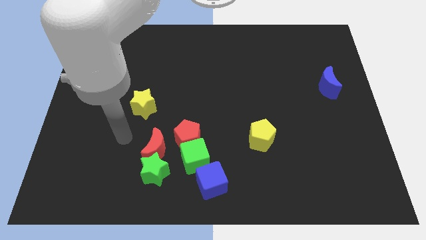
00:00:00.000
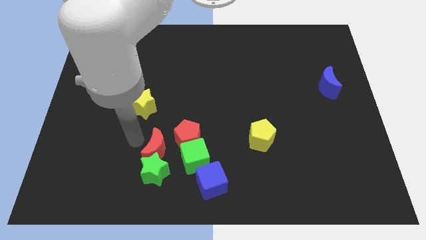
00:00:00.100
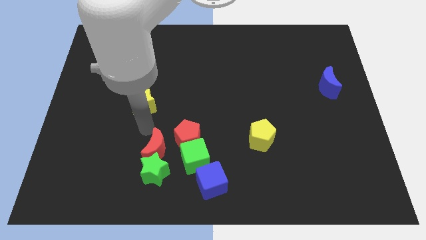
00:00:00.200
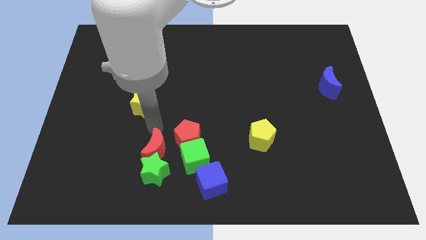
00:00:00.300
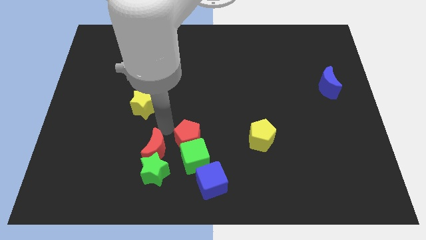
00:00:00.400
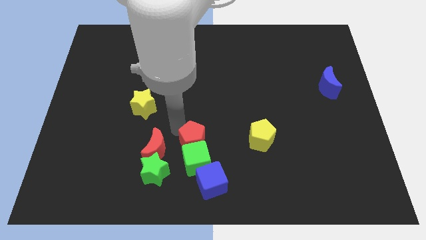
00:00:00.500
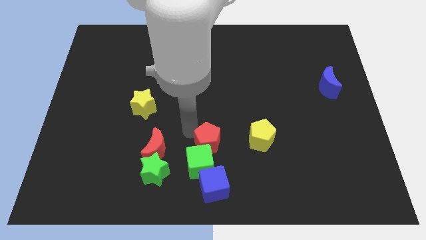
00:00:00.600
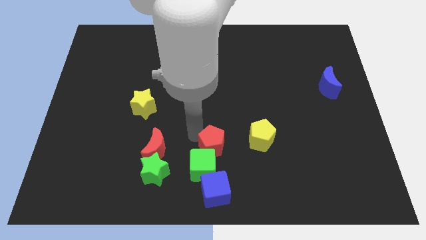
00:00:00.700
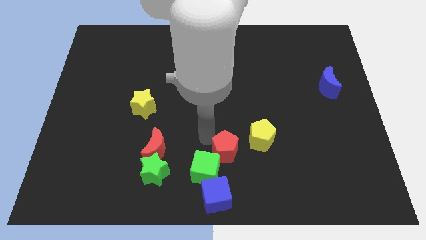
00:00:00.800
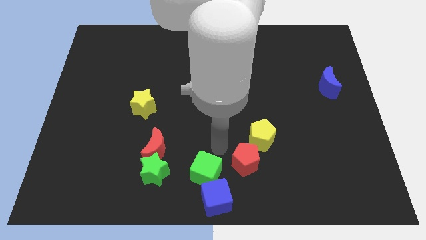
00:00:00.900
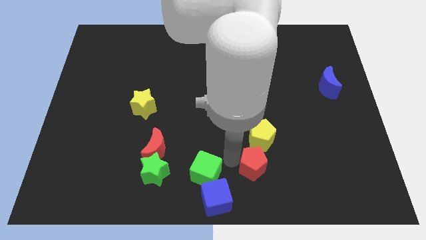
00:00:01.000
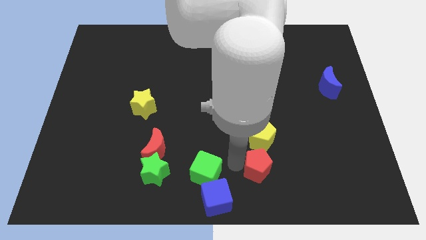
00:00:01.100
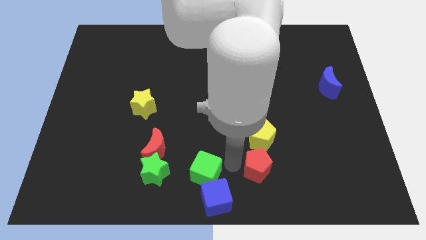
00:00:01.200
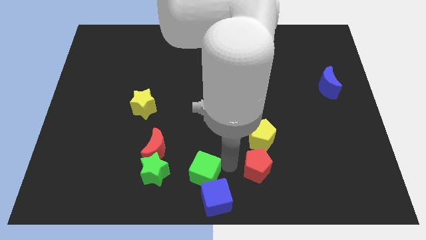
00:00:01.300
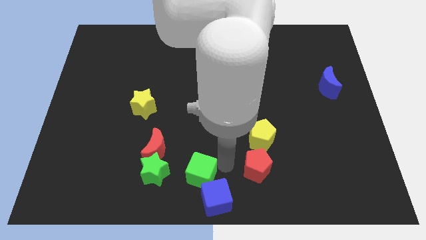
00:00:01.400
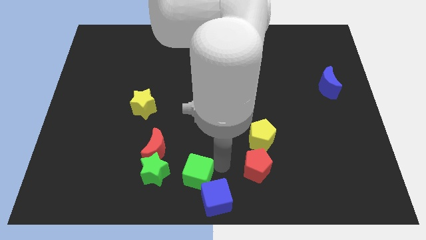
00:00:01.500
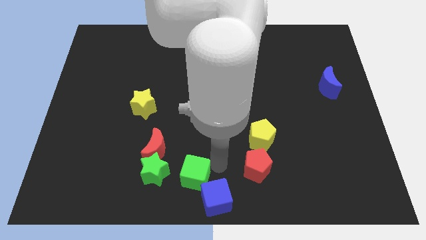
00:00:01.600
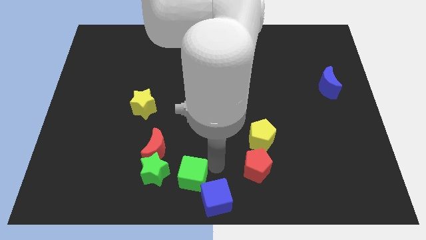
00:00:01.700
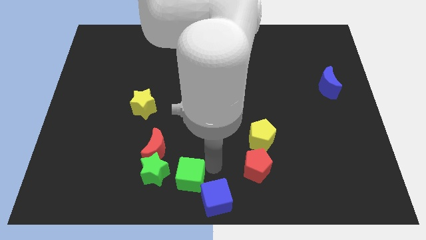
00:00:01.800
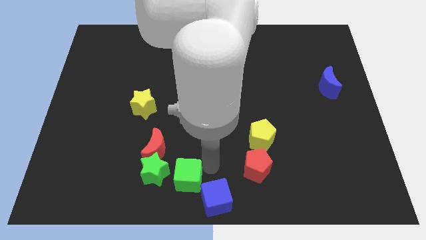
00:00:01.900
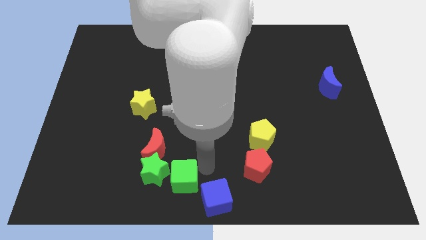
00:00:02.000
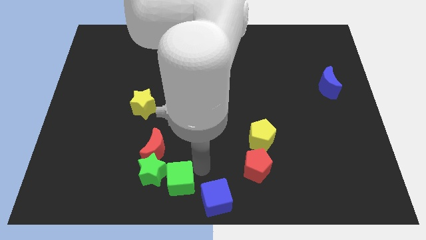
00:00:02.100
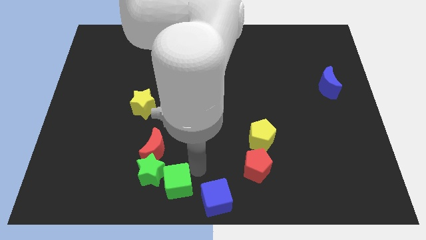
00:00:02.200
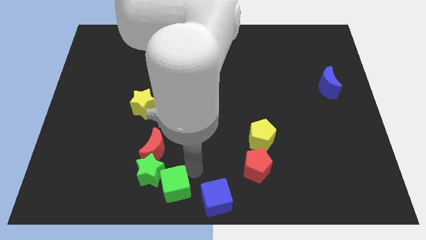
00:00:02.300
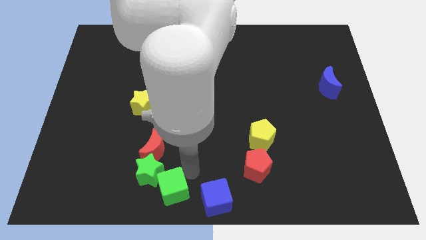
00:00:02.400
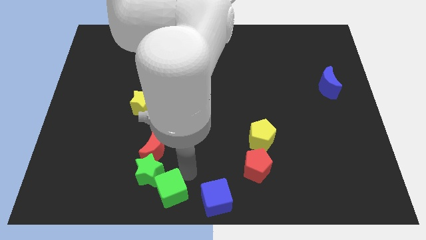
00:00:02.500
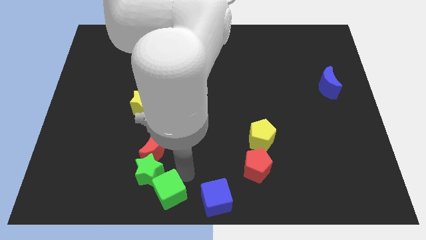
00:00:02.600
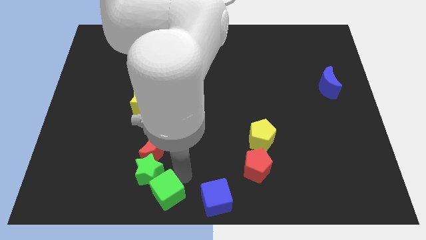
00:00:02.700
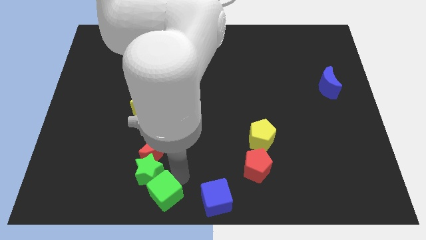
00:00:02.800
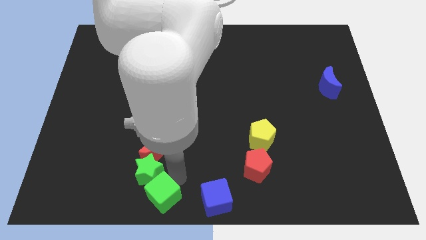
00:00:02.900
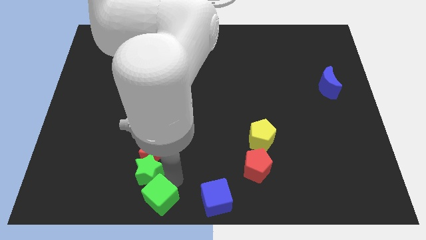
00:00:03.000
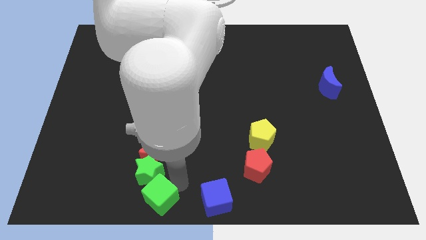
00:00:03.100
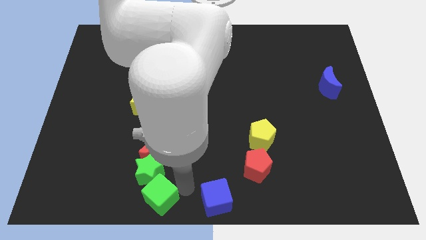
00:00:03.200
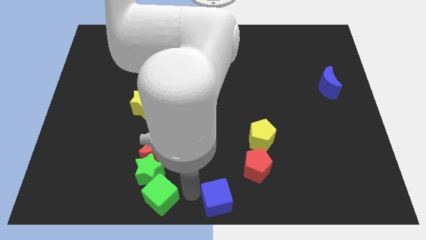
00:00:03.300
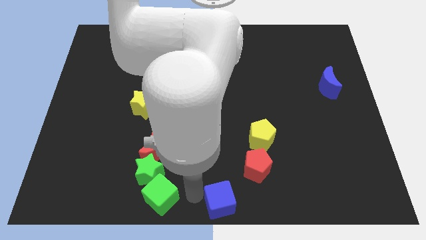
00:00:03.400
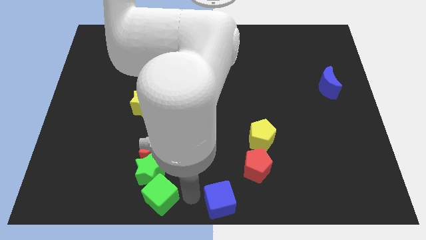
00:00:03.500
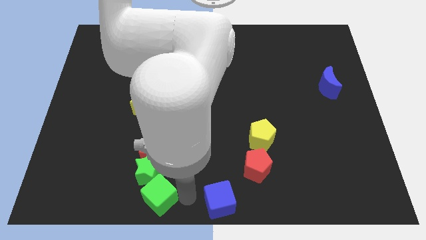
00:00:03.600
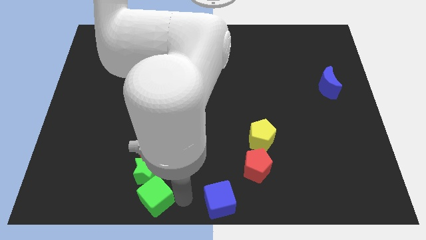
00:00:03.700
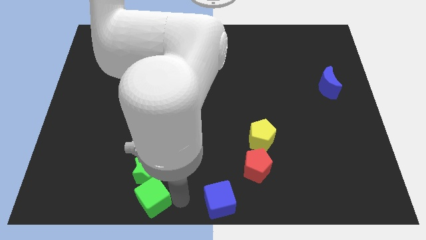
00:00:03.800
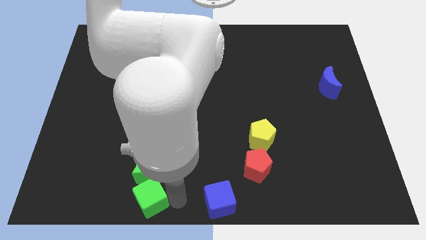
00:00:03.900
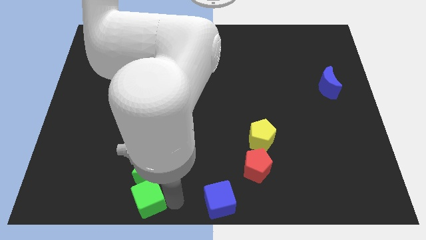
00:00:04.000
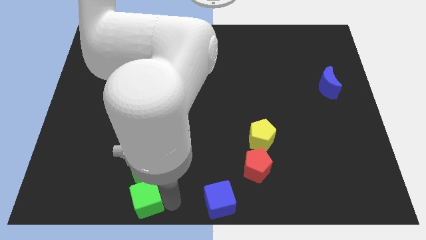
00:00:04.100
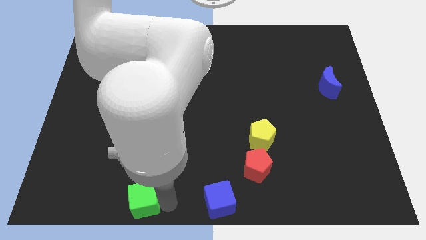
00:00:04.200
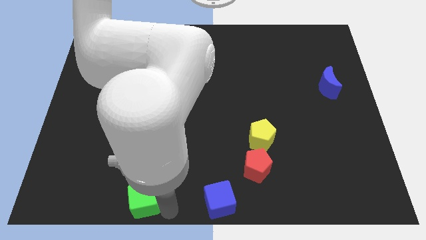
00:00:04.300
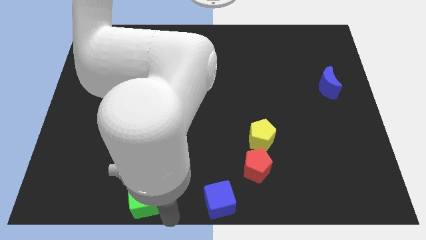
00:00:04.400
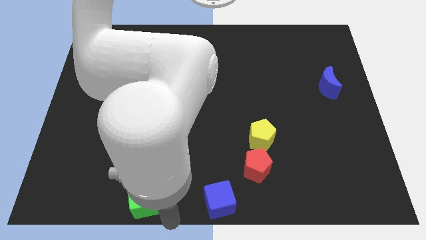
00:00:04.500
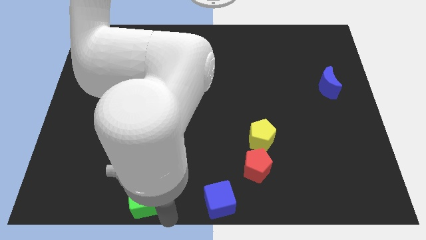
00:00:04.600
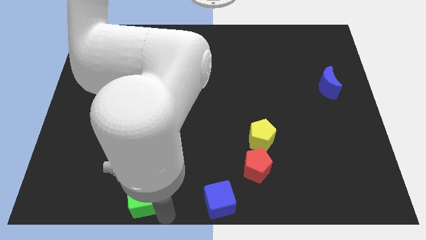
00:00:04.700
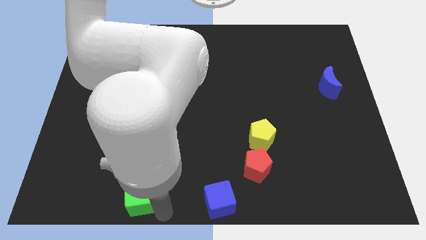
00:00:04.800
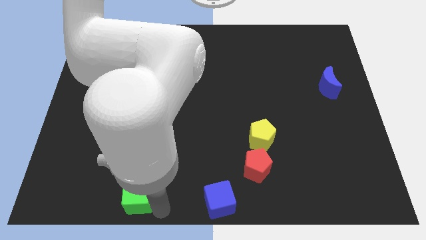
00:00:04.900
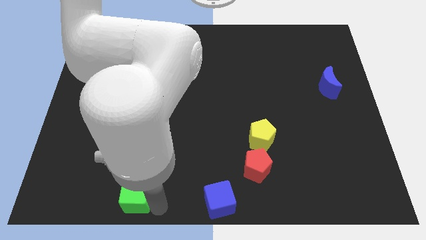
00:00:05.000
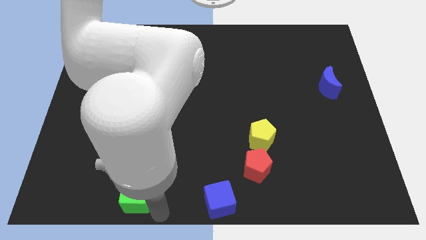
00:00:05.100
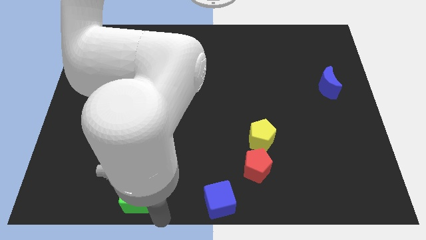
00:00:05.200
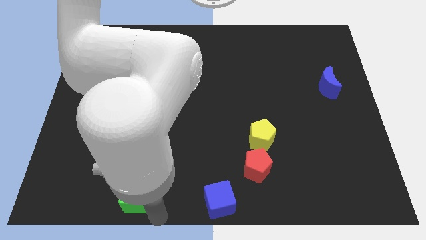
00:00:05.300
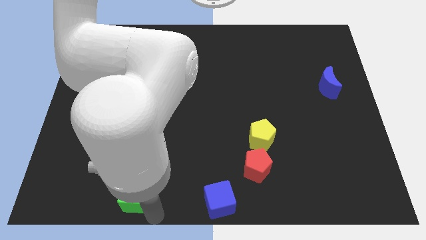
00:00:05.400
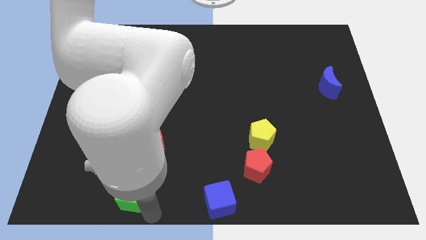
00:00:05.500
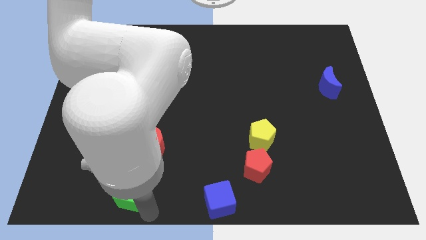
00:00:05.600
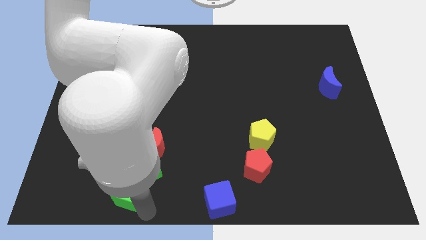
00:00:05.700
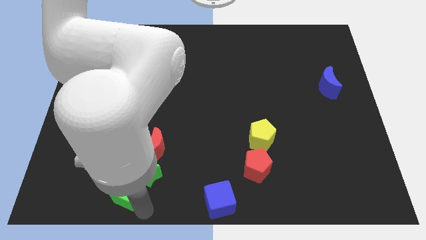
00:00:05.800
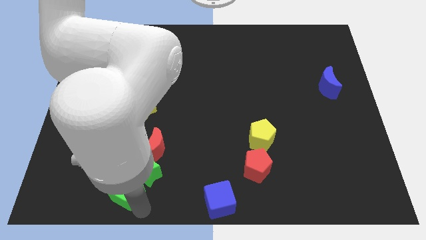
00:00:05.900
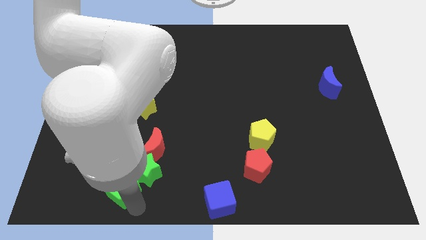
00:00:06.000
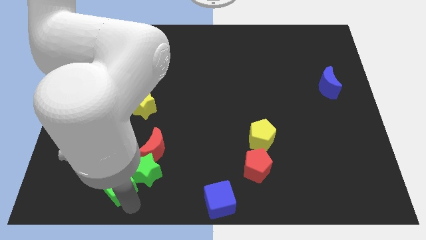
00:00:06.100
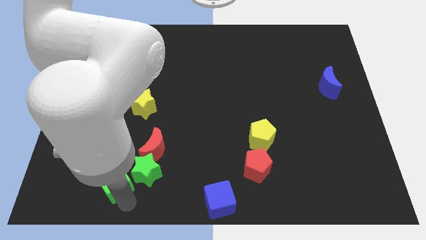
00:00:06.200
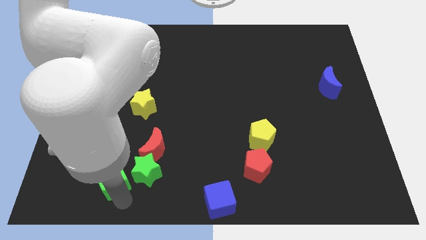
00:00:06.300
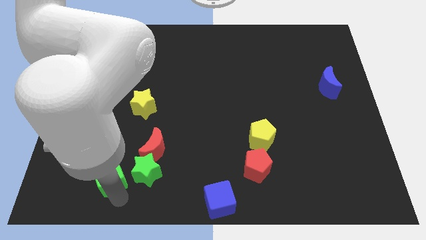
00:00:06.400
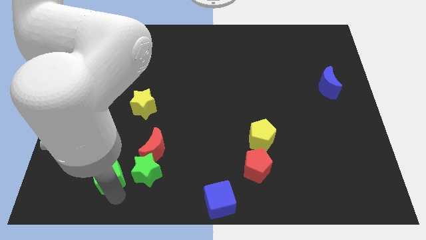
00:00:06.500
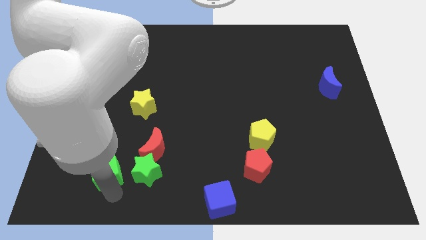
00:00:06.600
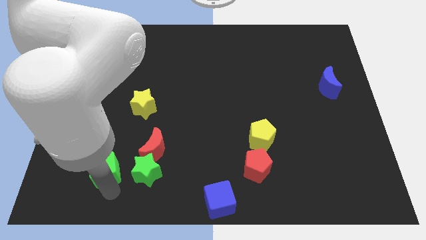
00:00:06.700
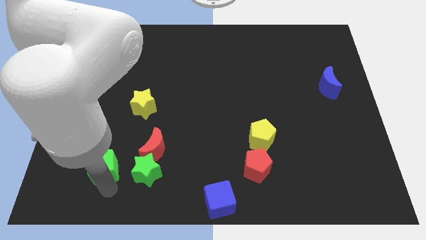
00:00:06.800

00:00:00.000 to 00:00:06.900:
move the green cube to the left side of the red moon
